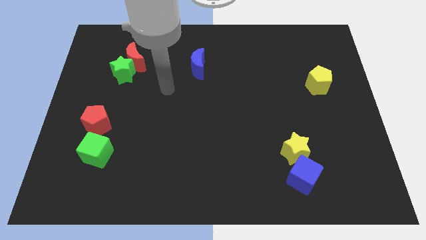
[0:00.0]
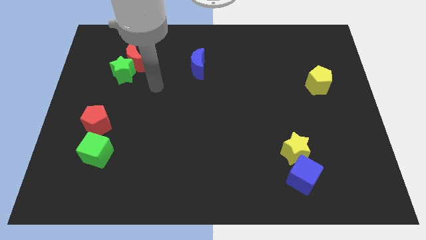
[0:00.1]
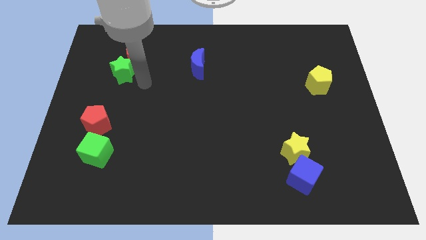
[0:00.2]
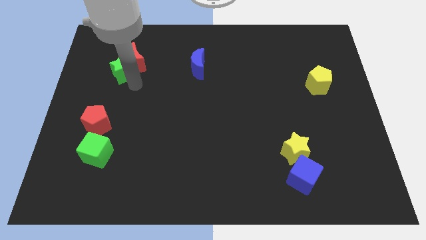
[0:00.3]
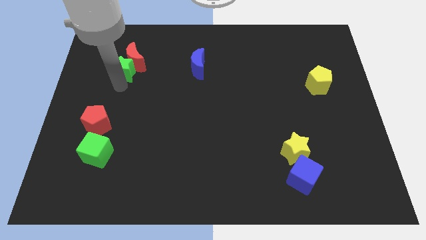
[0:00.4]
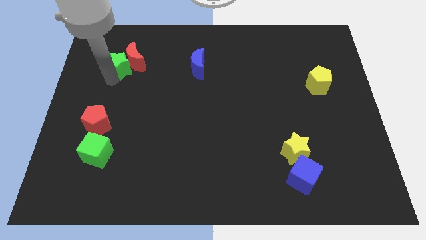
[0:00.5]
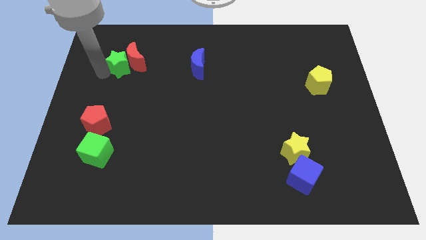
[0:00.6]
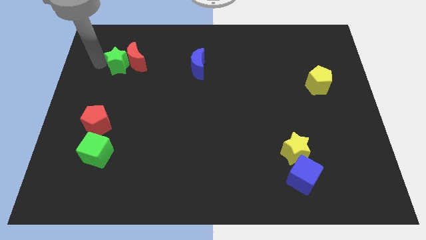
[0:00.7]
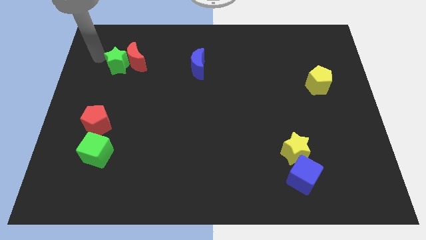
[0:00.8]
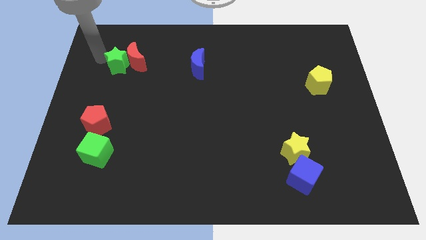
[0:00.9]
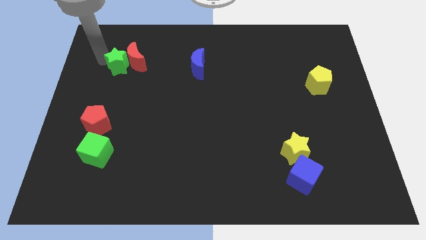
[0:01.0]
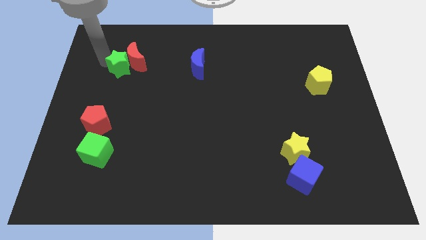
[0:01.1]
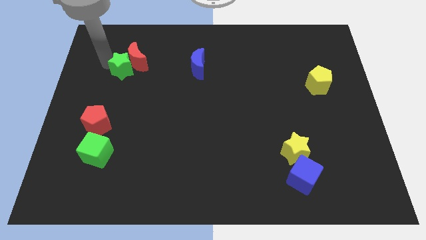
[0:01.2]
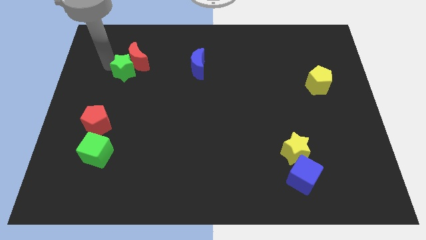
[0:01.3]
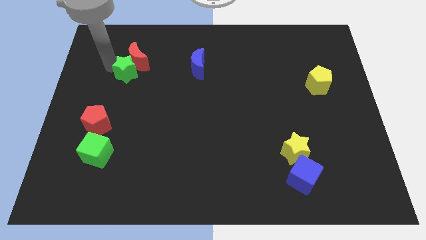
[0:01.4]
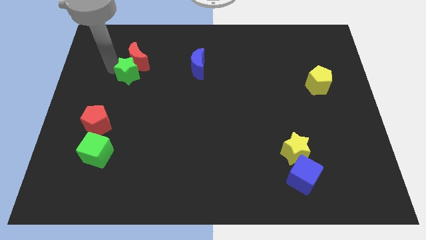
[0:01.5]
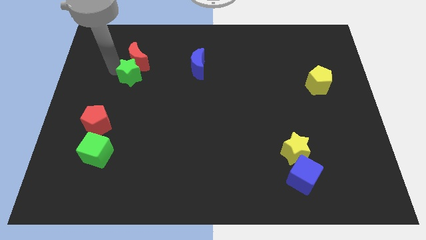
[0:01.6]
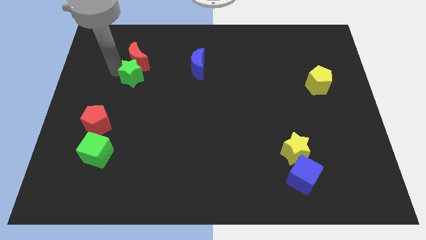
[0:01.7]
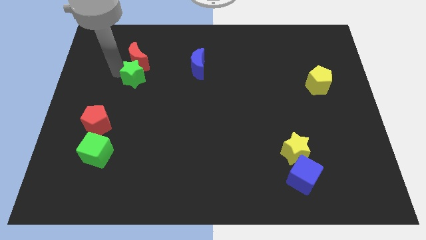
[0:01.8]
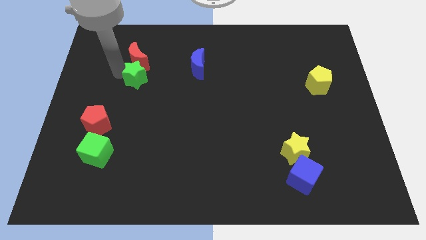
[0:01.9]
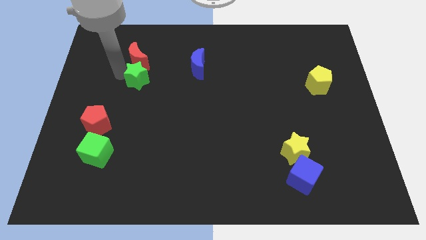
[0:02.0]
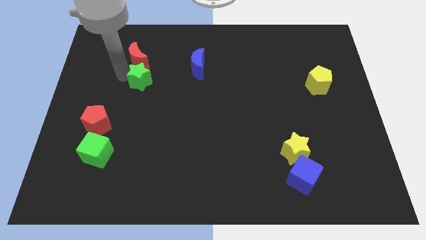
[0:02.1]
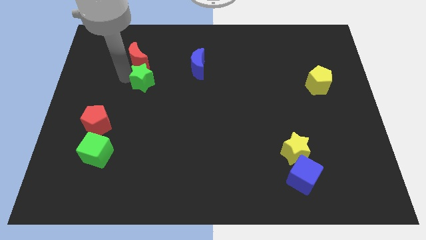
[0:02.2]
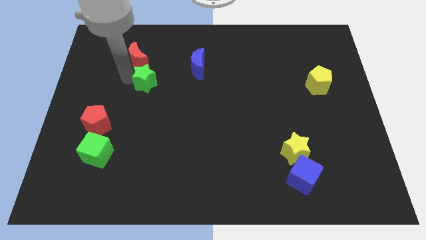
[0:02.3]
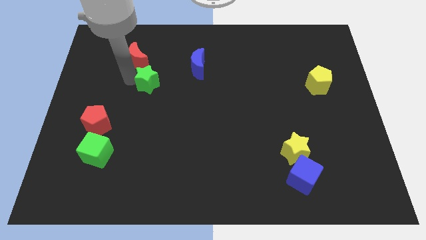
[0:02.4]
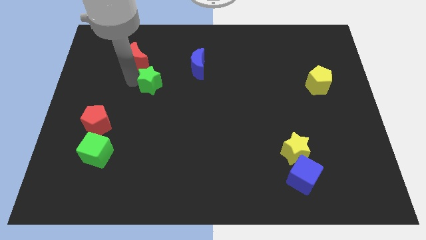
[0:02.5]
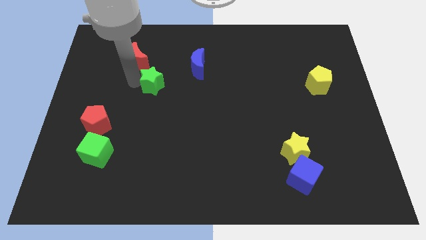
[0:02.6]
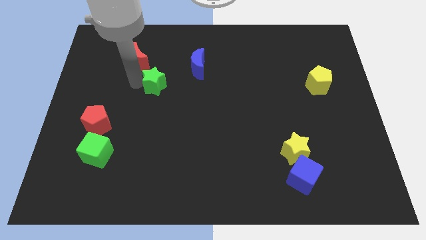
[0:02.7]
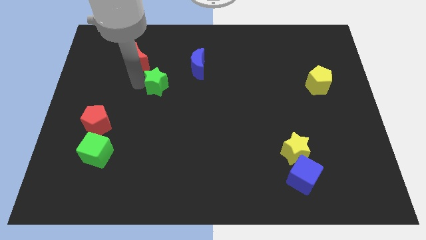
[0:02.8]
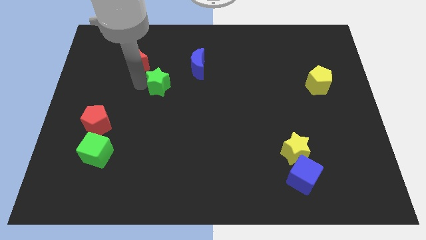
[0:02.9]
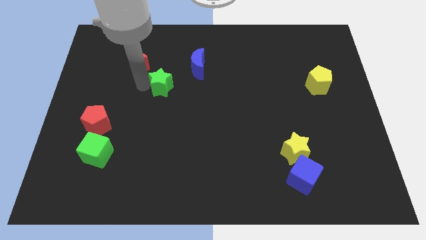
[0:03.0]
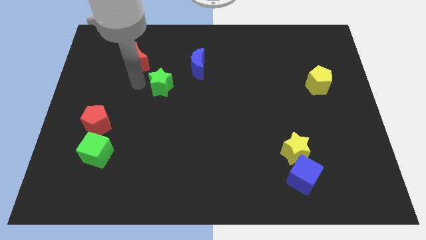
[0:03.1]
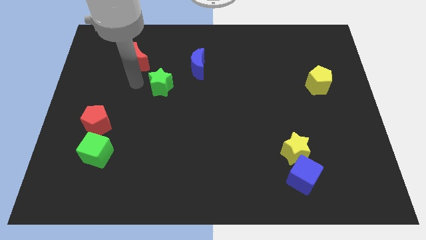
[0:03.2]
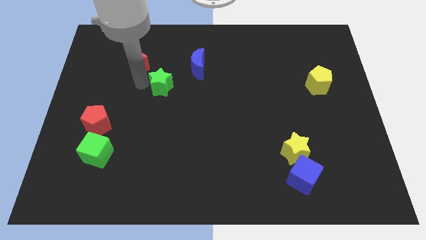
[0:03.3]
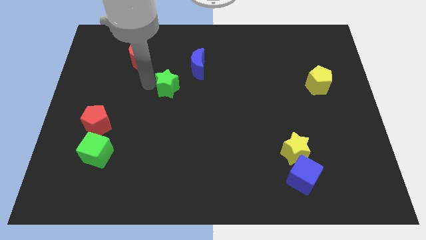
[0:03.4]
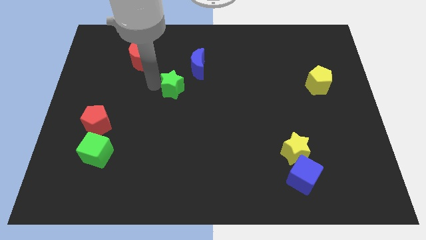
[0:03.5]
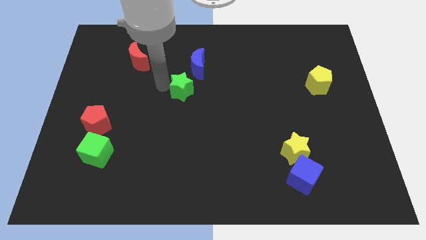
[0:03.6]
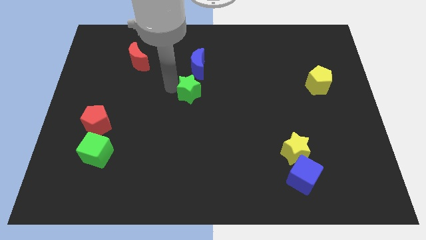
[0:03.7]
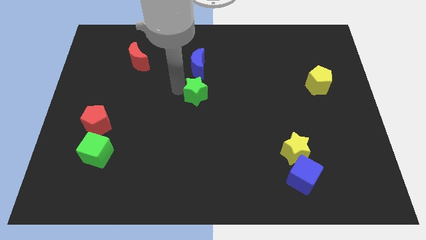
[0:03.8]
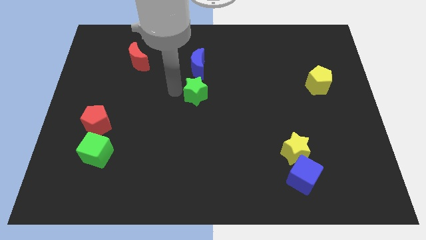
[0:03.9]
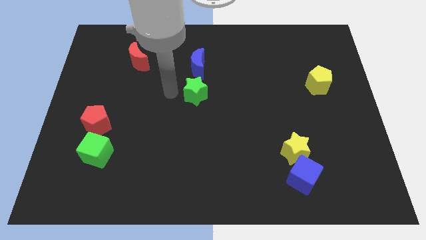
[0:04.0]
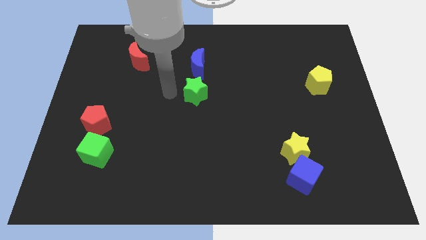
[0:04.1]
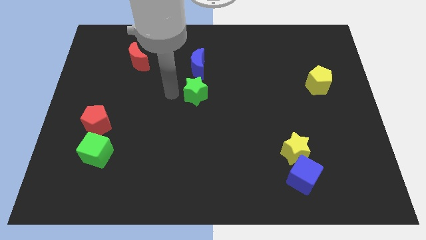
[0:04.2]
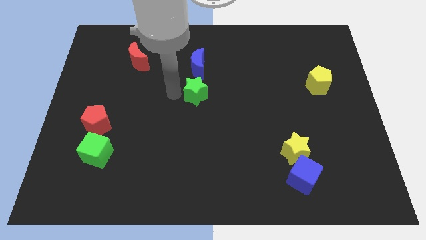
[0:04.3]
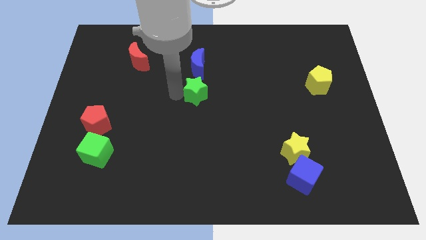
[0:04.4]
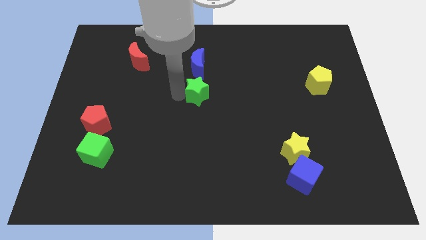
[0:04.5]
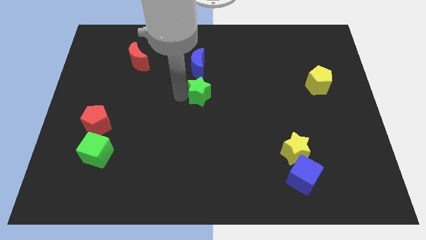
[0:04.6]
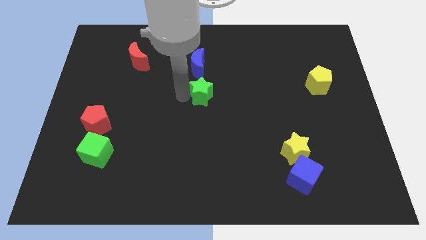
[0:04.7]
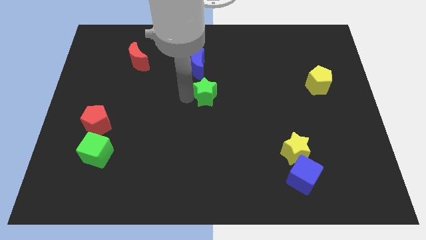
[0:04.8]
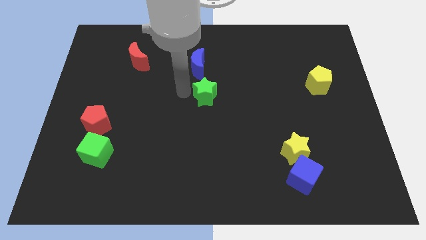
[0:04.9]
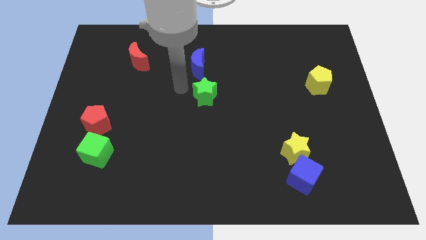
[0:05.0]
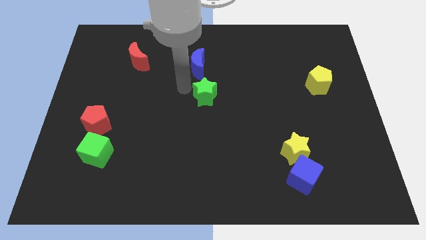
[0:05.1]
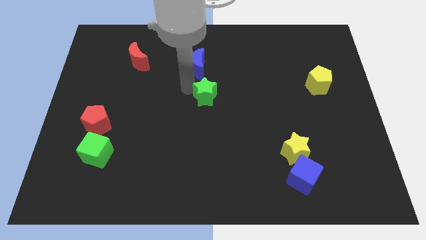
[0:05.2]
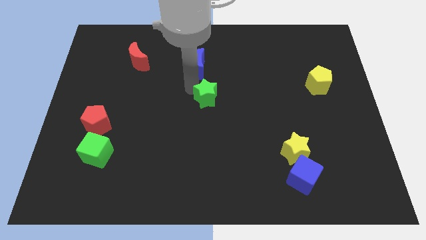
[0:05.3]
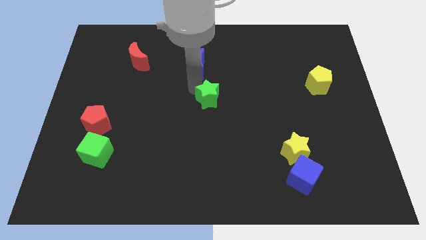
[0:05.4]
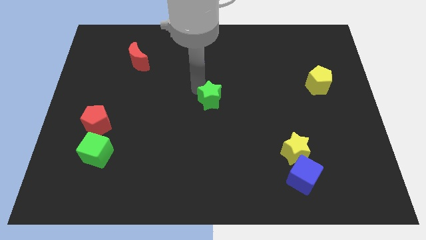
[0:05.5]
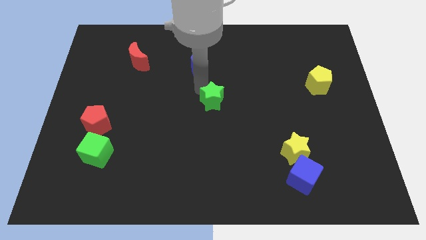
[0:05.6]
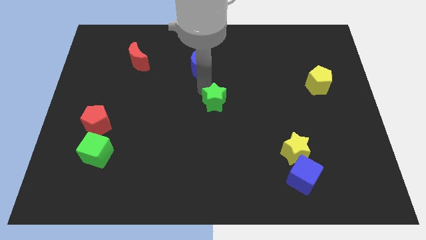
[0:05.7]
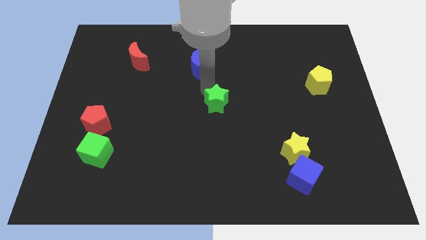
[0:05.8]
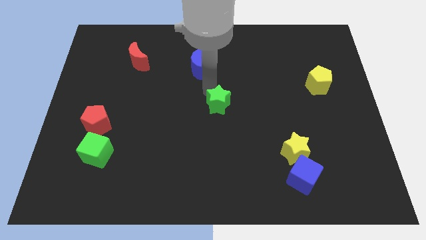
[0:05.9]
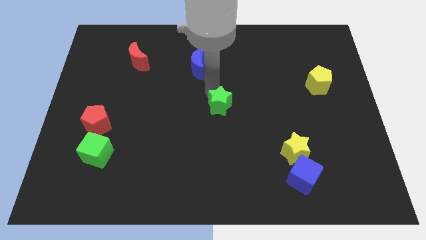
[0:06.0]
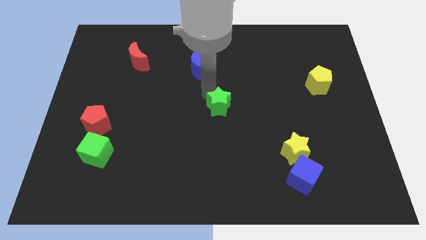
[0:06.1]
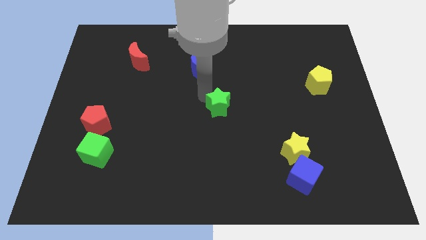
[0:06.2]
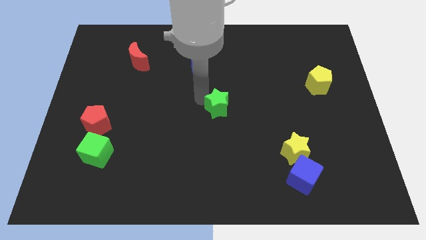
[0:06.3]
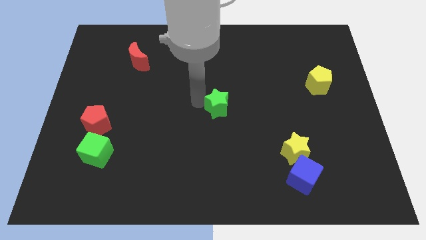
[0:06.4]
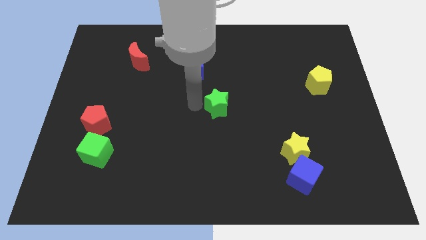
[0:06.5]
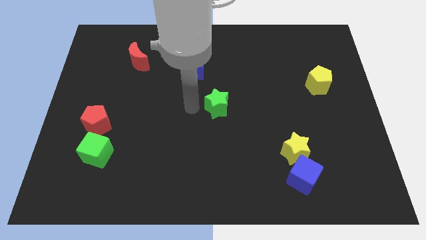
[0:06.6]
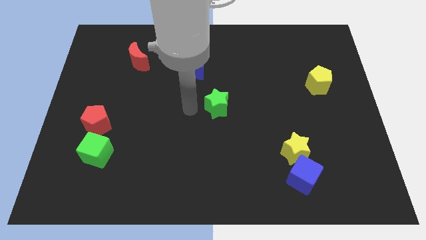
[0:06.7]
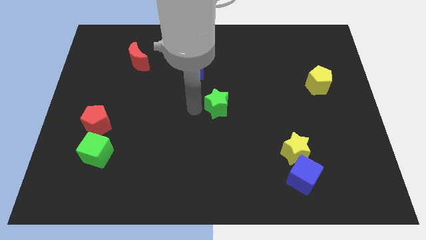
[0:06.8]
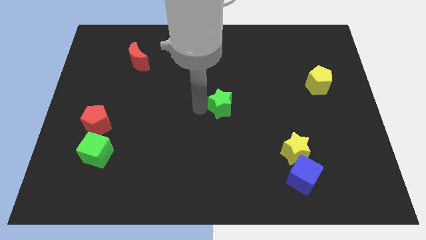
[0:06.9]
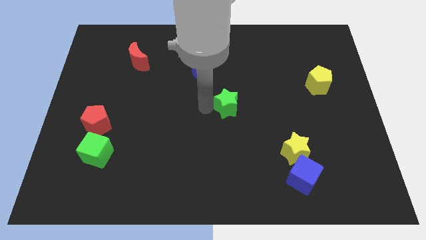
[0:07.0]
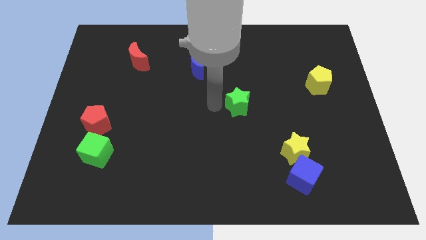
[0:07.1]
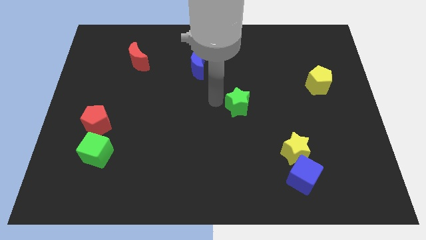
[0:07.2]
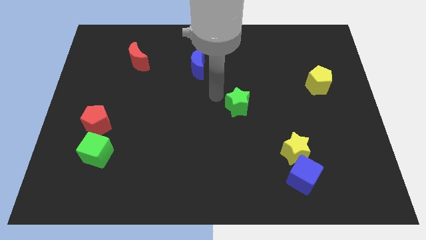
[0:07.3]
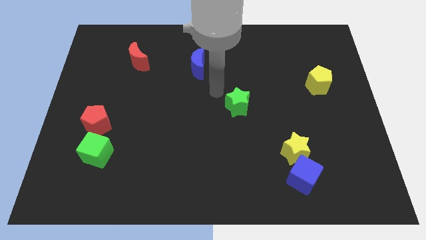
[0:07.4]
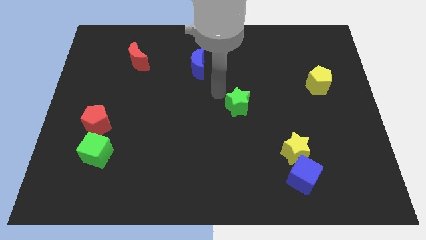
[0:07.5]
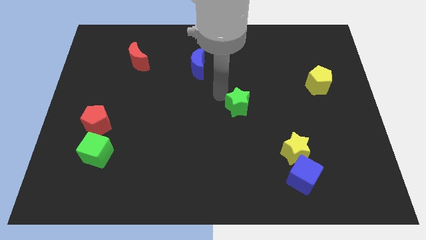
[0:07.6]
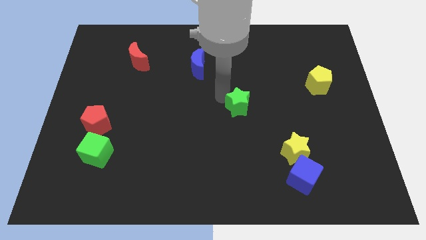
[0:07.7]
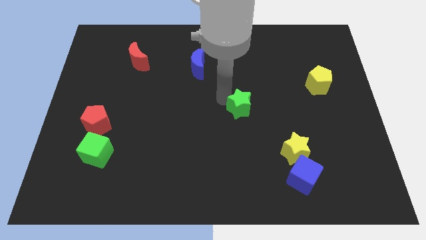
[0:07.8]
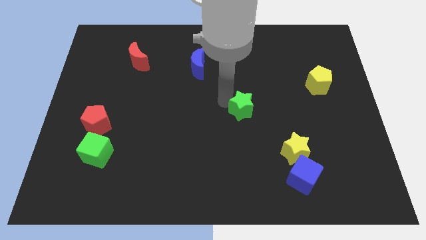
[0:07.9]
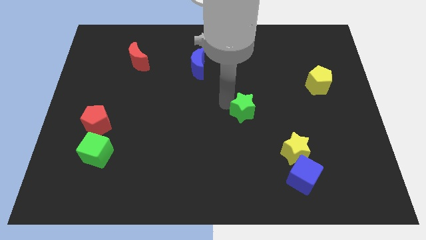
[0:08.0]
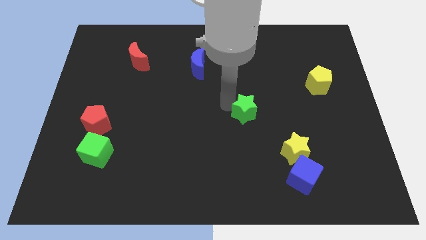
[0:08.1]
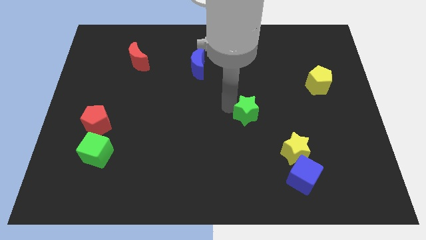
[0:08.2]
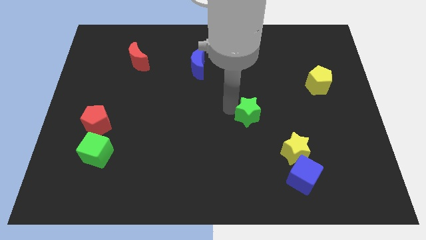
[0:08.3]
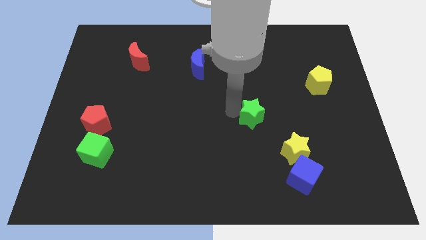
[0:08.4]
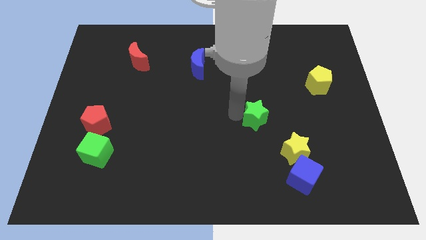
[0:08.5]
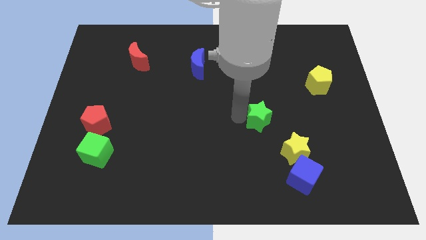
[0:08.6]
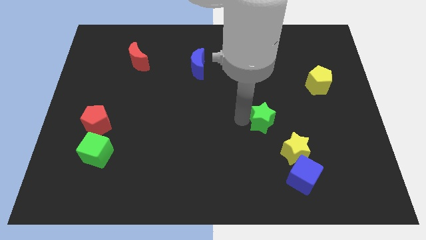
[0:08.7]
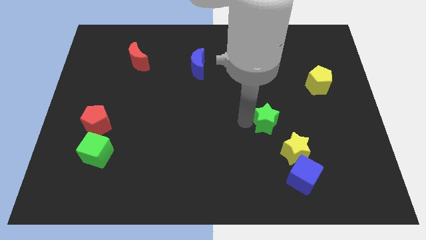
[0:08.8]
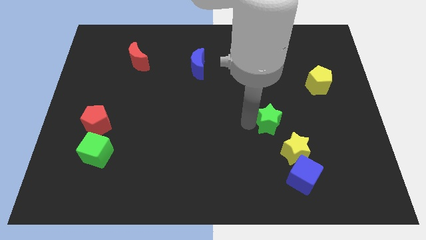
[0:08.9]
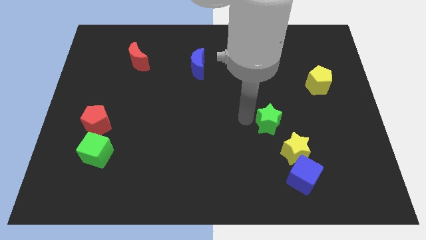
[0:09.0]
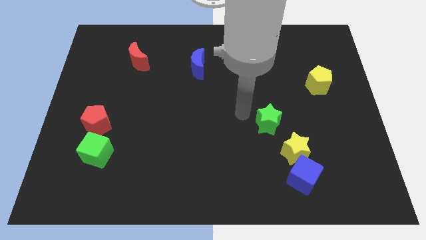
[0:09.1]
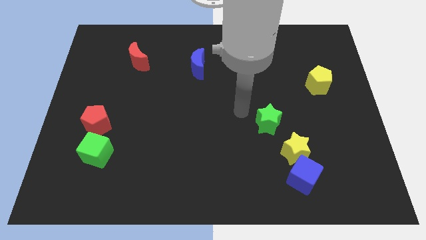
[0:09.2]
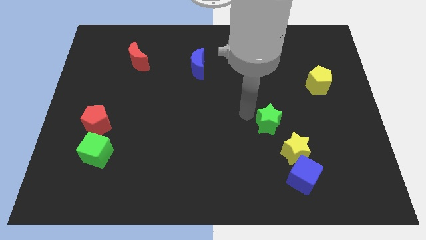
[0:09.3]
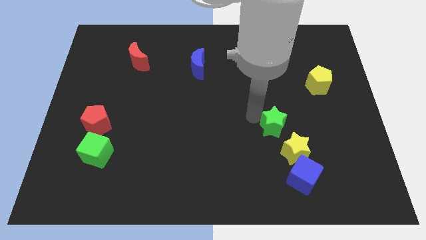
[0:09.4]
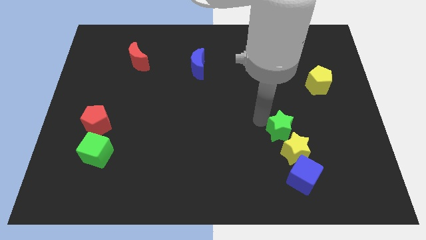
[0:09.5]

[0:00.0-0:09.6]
slide the green star above the blue cube
